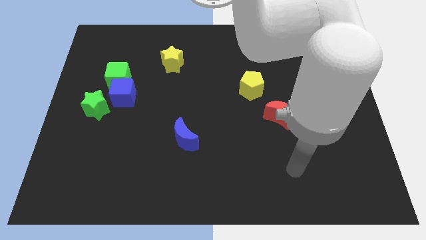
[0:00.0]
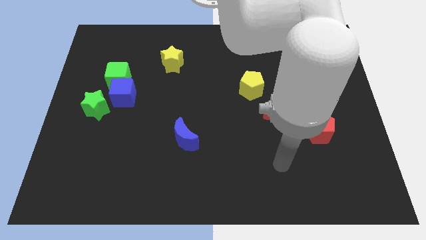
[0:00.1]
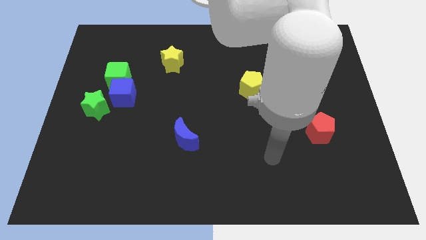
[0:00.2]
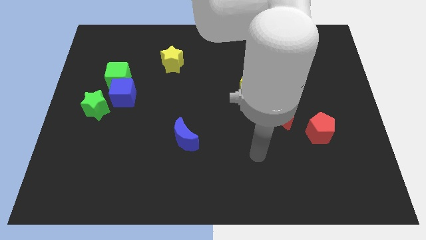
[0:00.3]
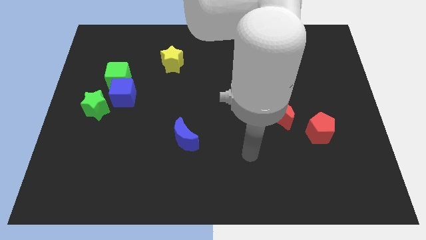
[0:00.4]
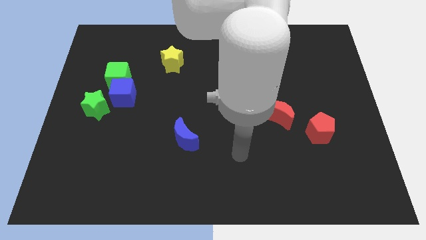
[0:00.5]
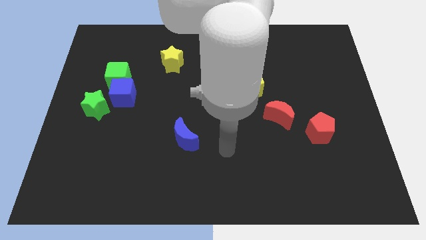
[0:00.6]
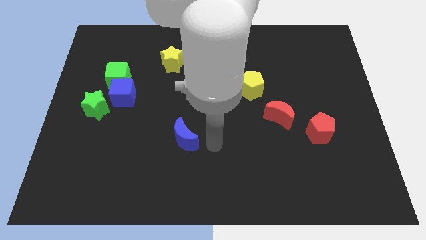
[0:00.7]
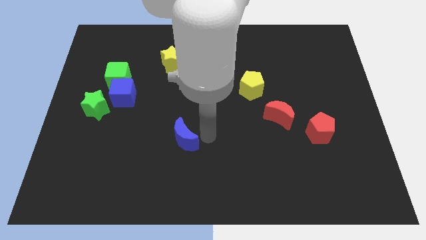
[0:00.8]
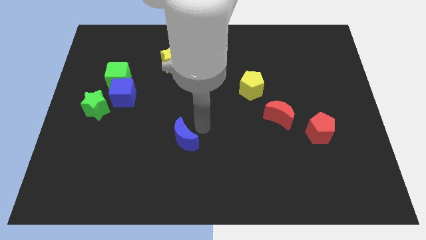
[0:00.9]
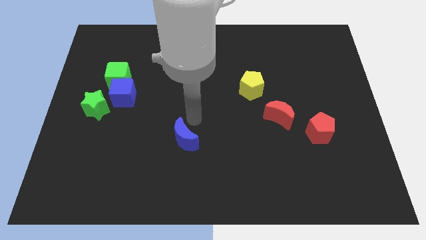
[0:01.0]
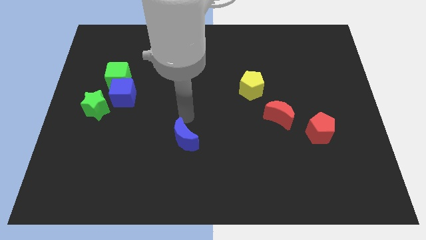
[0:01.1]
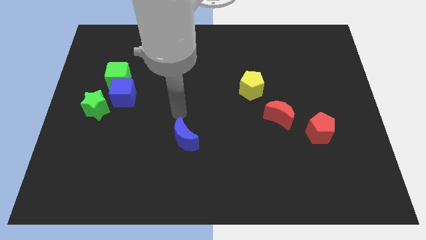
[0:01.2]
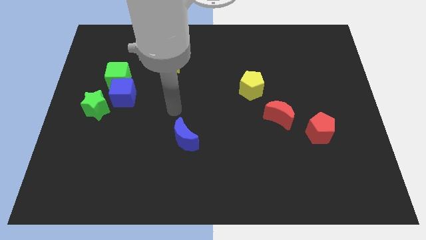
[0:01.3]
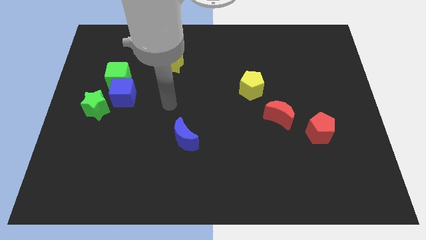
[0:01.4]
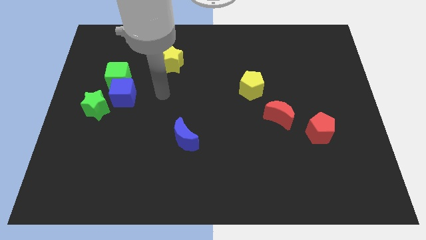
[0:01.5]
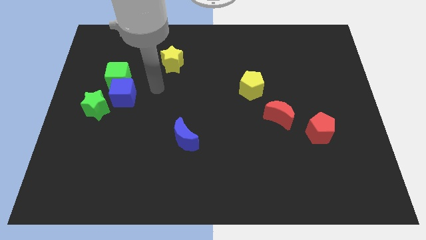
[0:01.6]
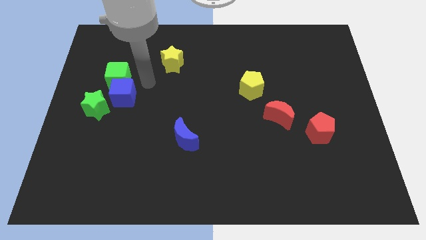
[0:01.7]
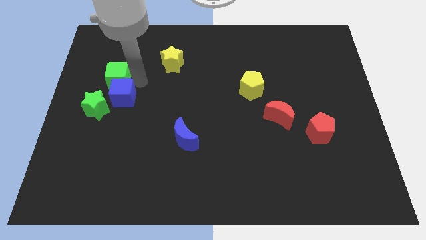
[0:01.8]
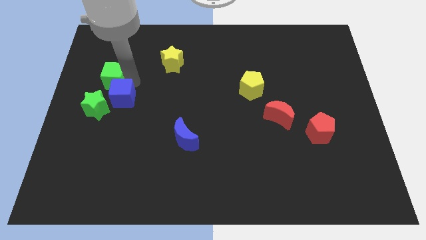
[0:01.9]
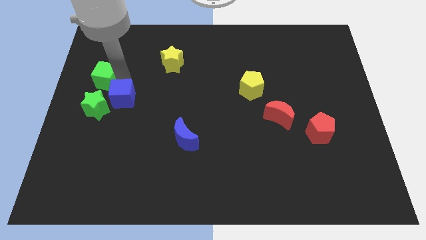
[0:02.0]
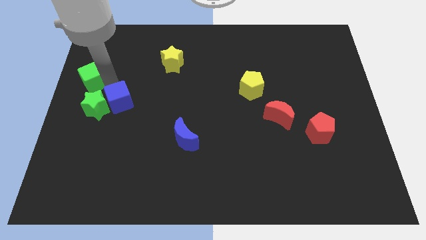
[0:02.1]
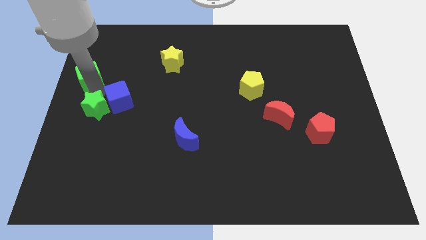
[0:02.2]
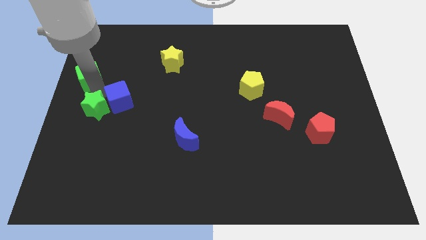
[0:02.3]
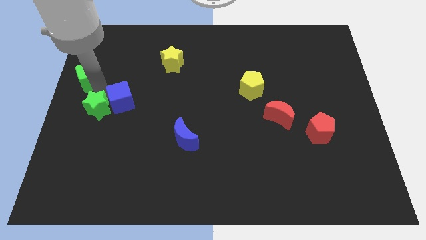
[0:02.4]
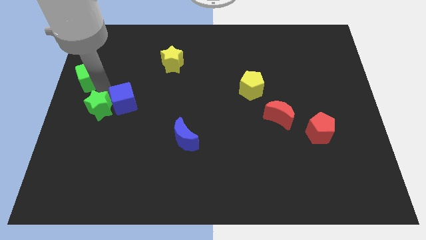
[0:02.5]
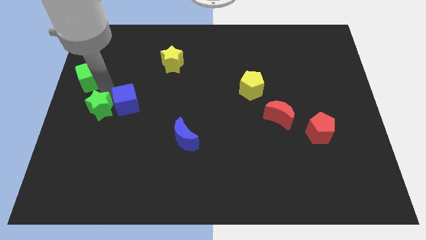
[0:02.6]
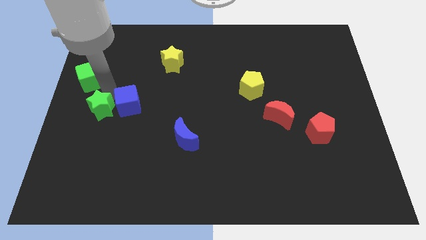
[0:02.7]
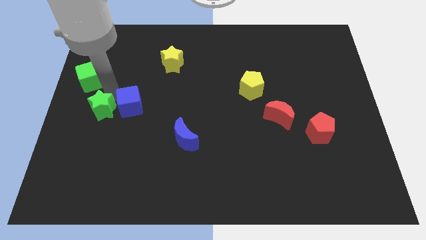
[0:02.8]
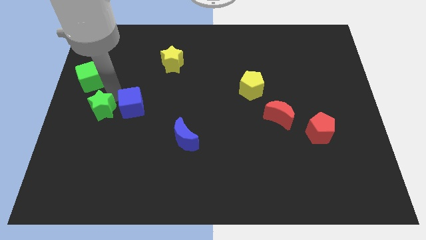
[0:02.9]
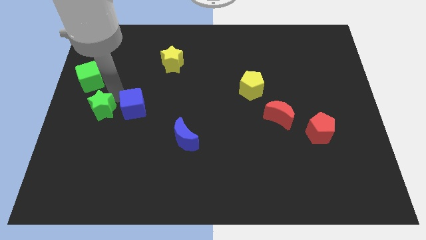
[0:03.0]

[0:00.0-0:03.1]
separate the blue cube from the green cube and green star

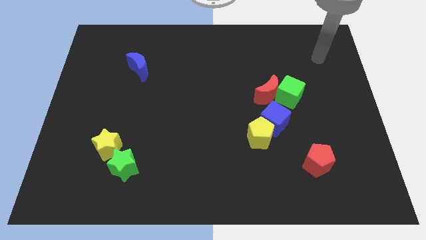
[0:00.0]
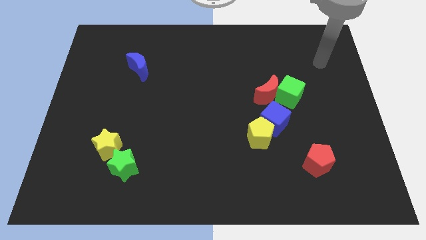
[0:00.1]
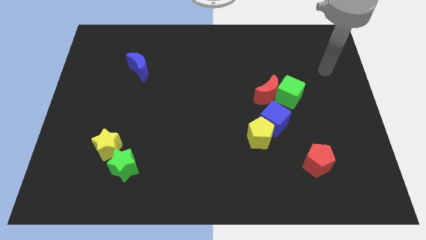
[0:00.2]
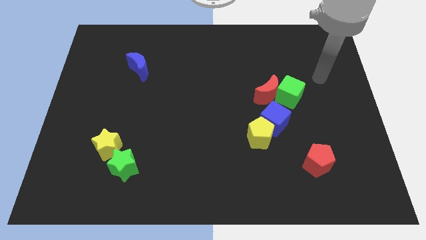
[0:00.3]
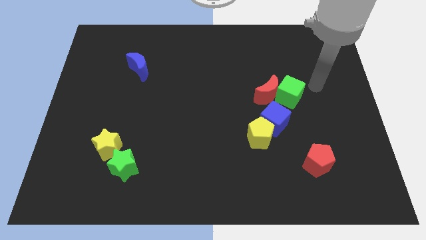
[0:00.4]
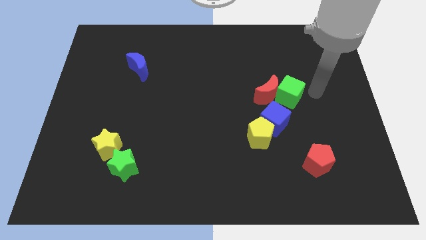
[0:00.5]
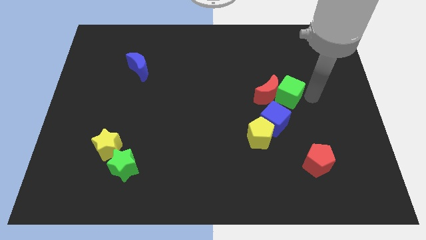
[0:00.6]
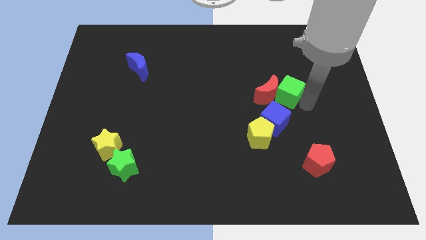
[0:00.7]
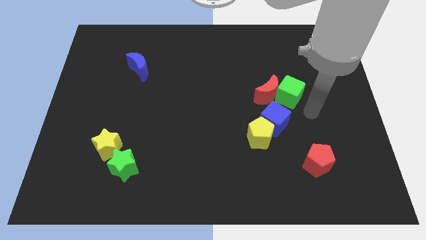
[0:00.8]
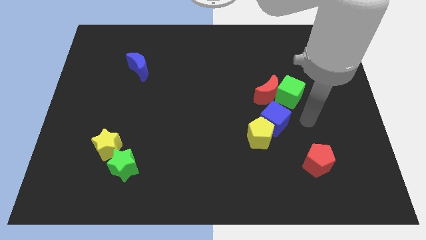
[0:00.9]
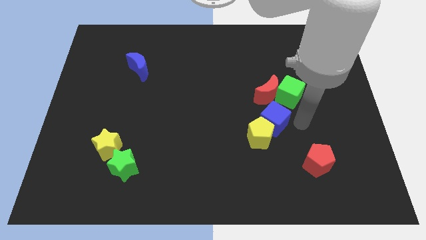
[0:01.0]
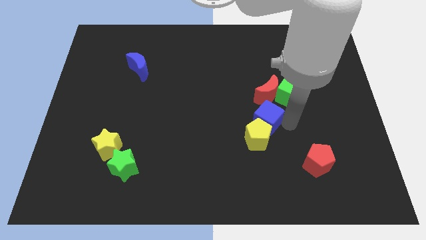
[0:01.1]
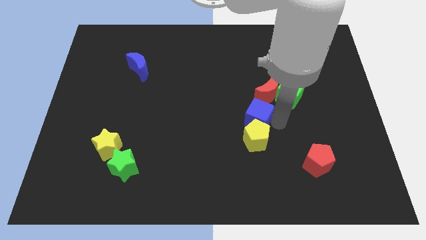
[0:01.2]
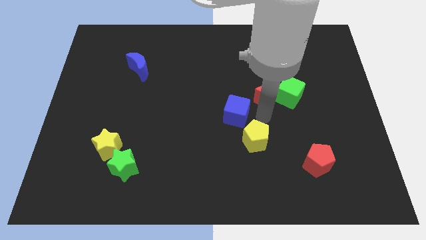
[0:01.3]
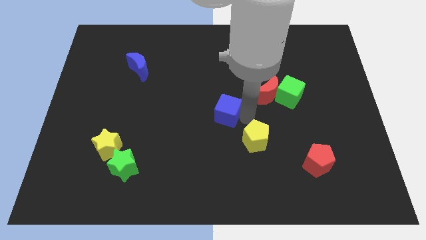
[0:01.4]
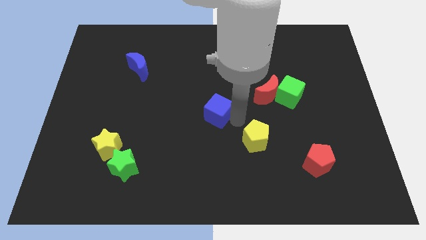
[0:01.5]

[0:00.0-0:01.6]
separate the yellow pentagon from the blue cube

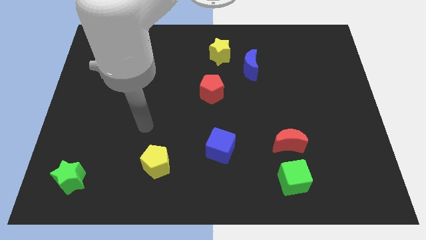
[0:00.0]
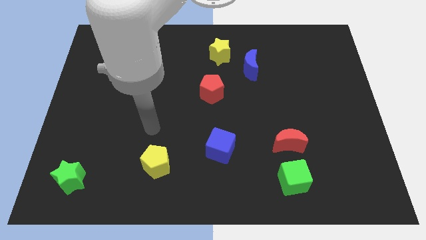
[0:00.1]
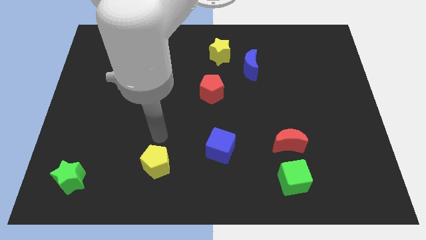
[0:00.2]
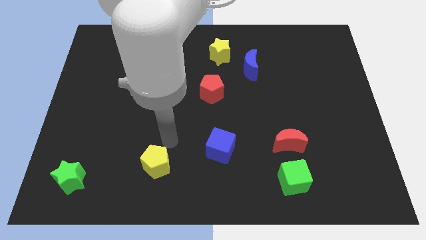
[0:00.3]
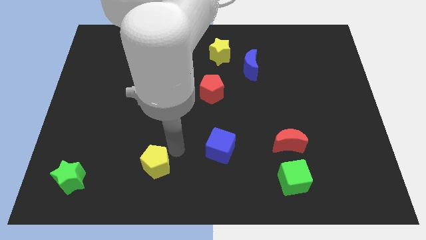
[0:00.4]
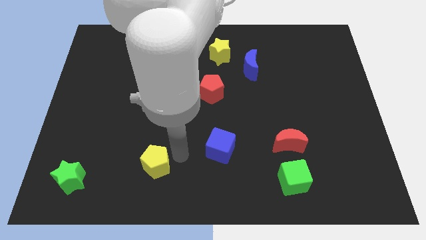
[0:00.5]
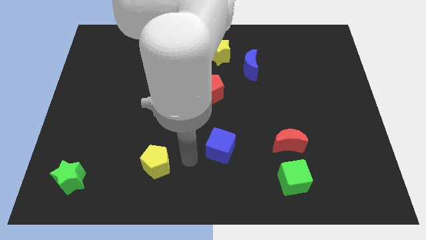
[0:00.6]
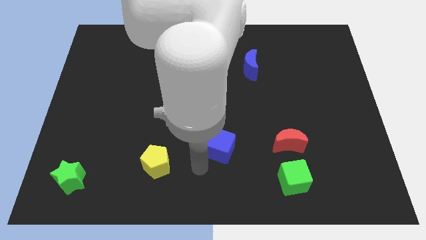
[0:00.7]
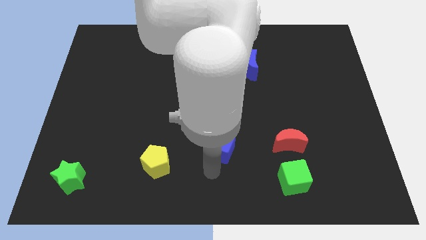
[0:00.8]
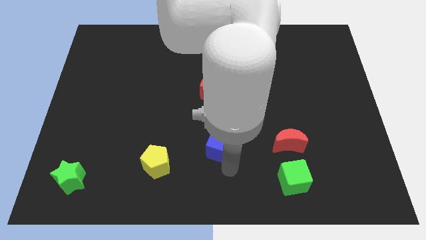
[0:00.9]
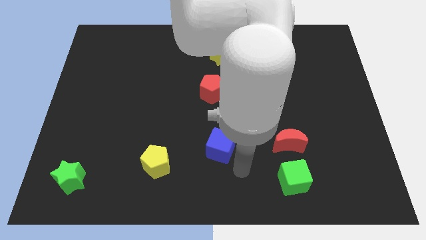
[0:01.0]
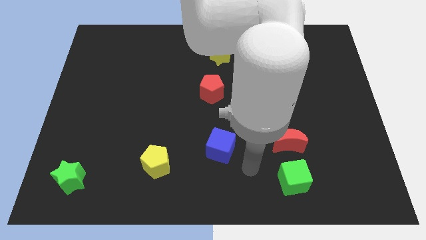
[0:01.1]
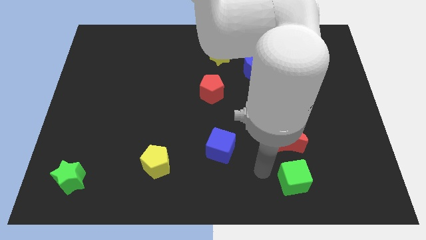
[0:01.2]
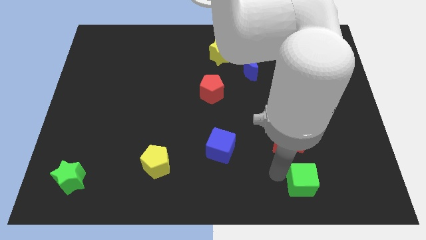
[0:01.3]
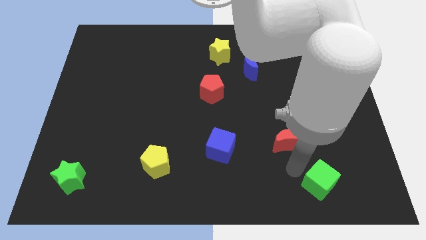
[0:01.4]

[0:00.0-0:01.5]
pull the red moon apart from the green cube

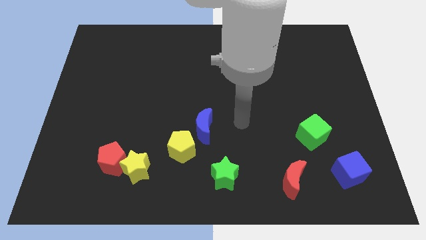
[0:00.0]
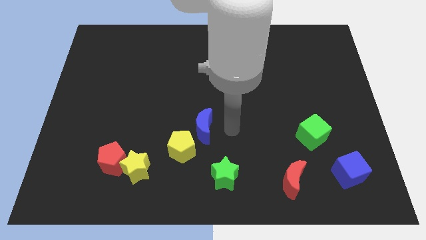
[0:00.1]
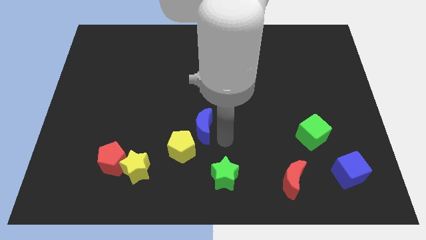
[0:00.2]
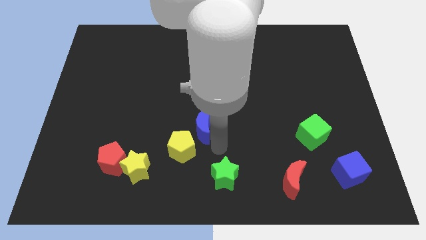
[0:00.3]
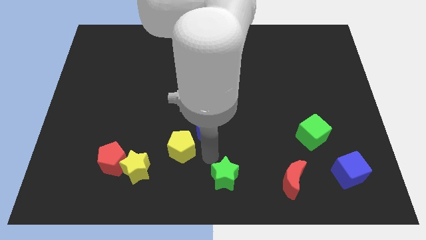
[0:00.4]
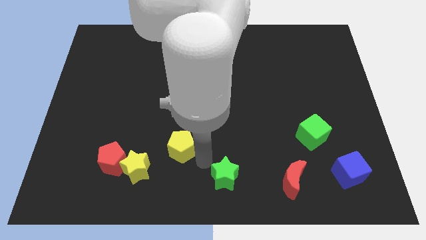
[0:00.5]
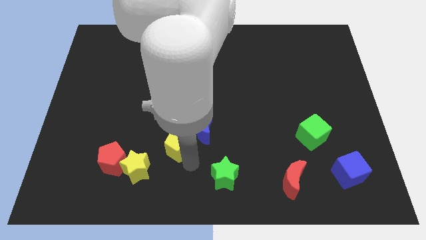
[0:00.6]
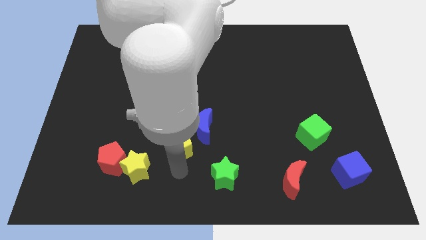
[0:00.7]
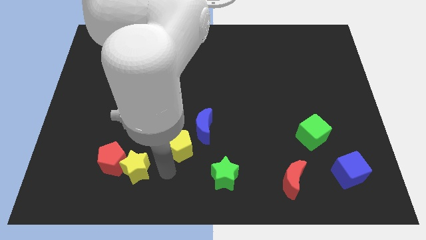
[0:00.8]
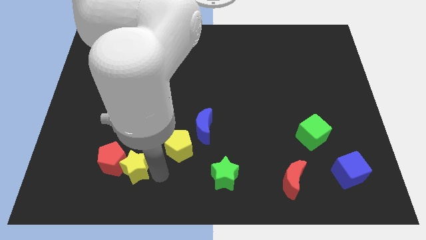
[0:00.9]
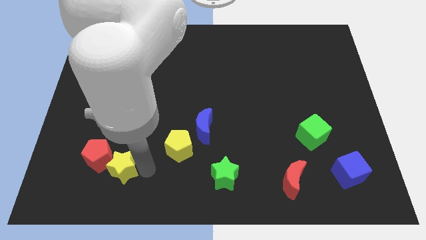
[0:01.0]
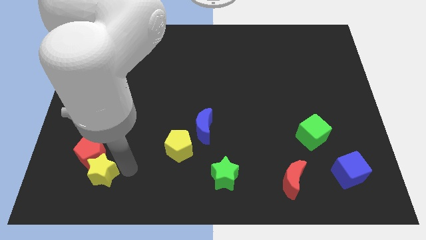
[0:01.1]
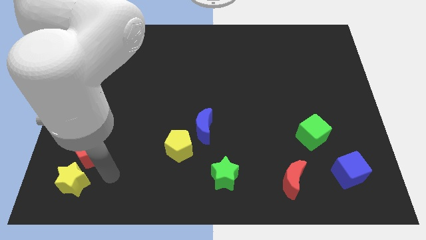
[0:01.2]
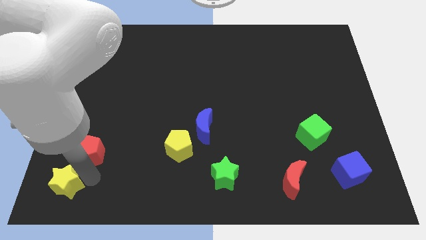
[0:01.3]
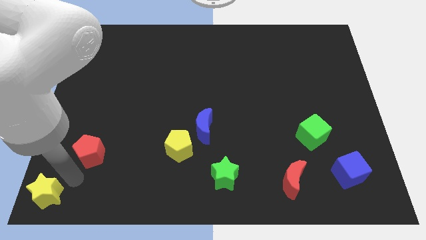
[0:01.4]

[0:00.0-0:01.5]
separate the red pentagon from the yellow star

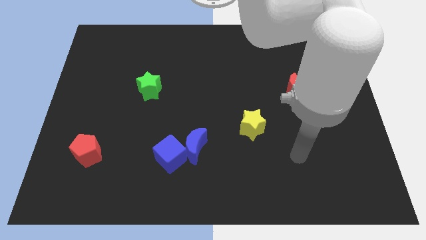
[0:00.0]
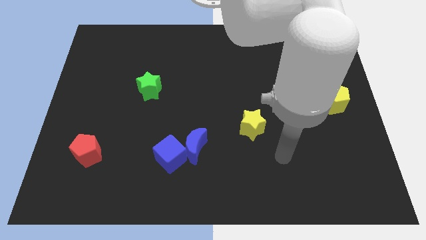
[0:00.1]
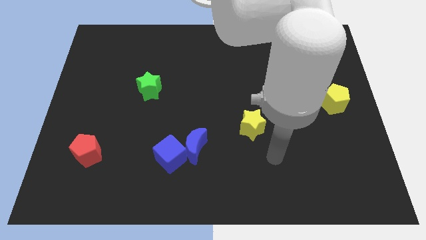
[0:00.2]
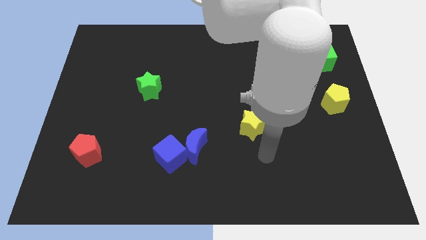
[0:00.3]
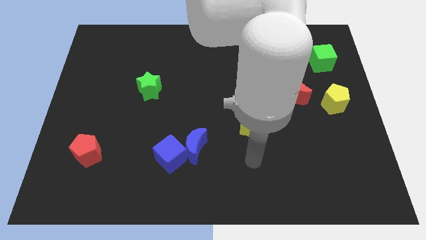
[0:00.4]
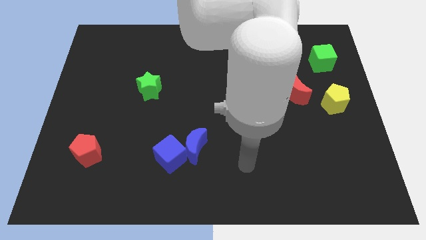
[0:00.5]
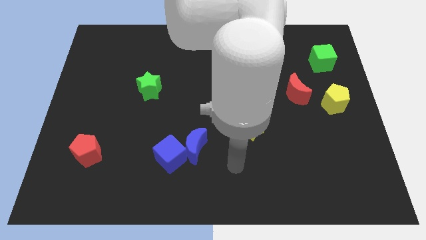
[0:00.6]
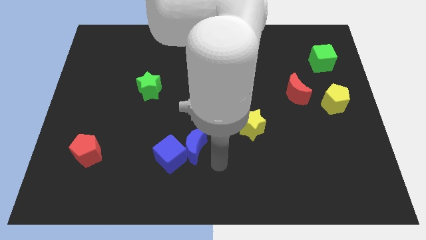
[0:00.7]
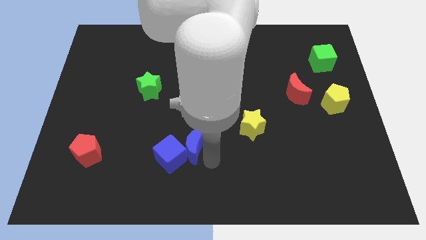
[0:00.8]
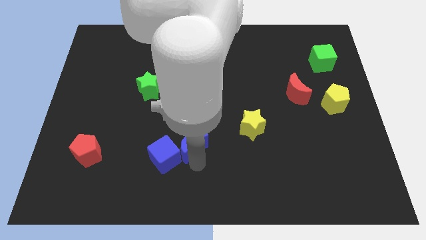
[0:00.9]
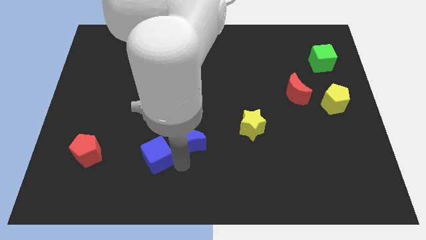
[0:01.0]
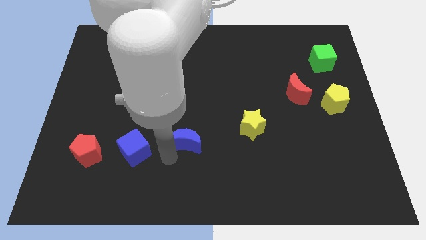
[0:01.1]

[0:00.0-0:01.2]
separate the blue moon from the blue cube

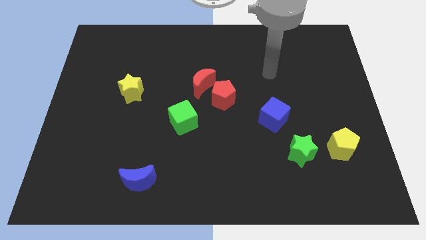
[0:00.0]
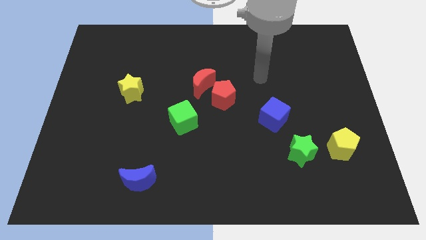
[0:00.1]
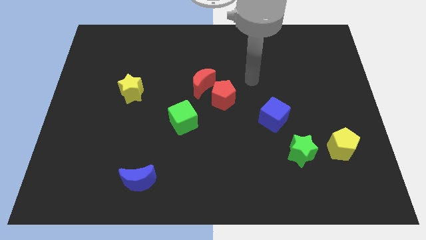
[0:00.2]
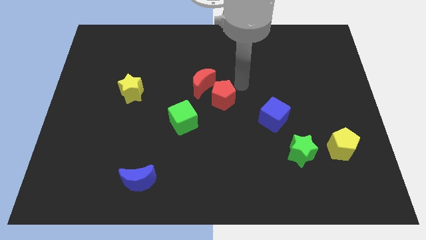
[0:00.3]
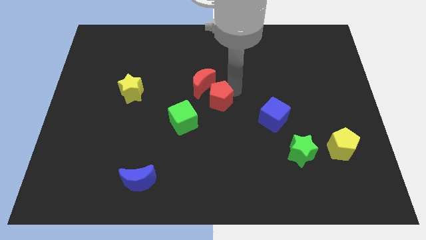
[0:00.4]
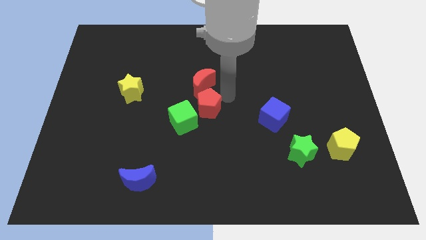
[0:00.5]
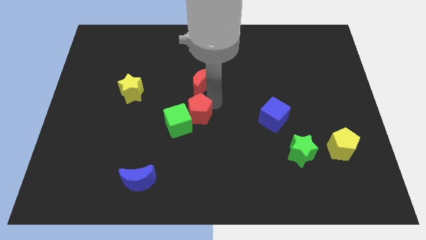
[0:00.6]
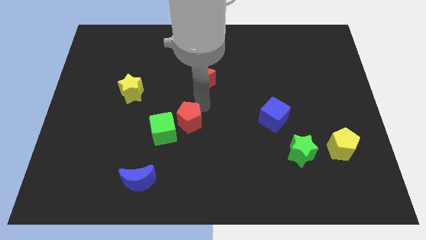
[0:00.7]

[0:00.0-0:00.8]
separate the red moon from the red pentagon
